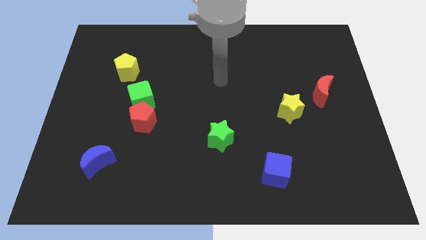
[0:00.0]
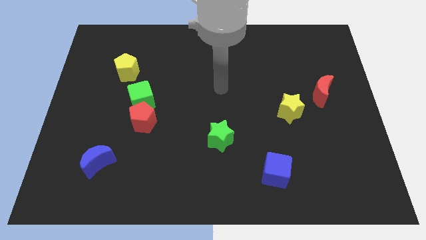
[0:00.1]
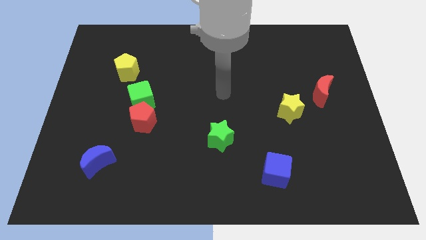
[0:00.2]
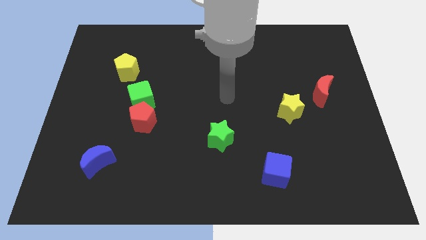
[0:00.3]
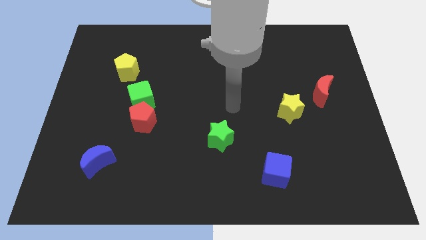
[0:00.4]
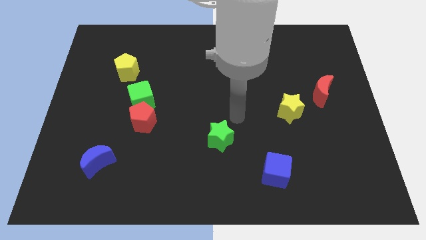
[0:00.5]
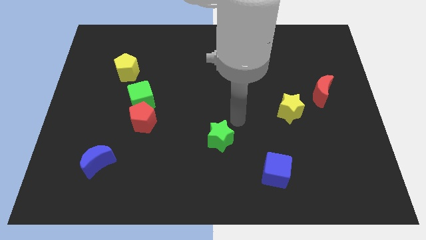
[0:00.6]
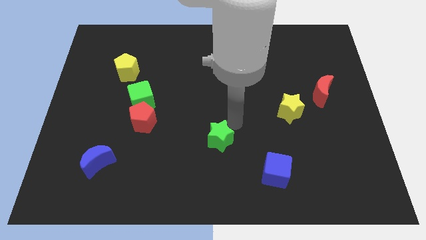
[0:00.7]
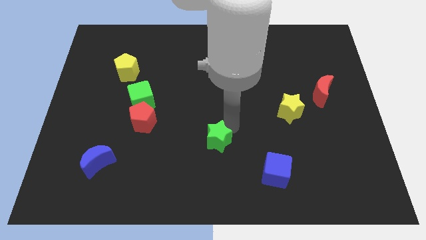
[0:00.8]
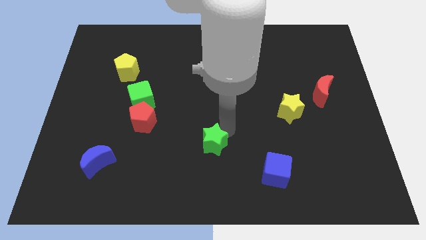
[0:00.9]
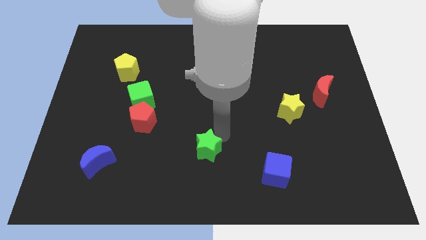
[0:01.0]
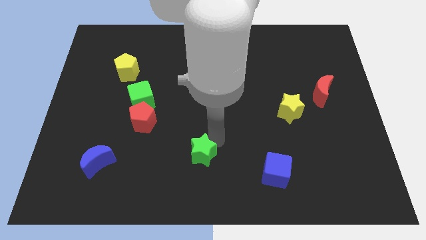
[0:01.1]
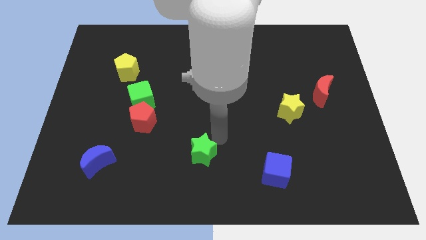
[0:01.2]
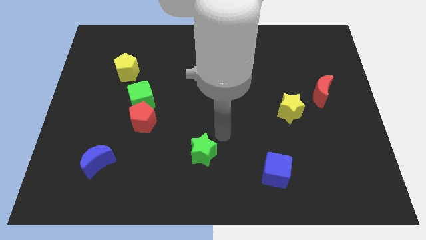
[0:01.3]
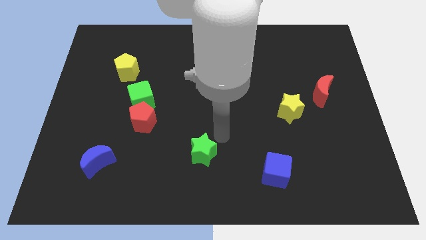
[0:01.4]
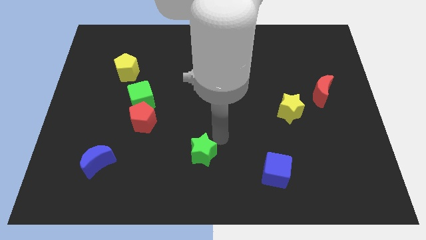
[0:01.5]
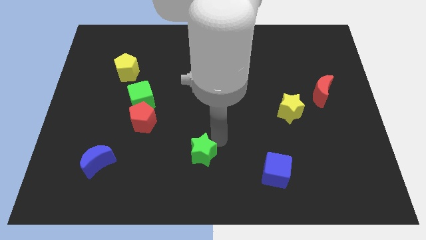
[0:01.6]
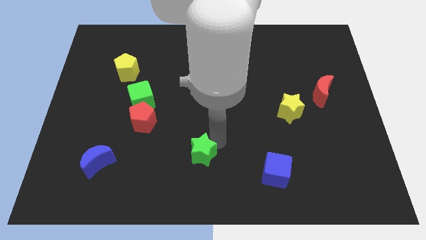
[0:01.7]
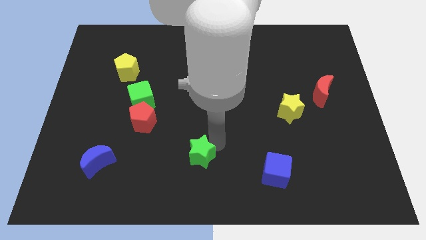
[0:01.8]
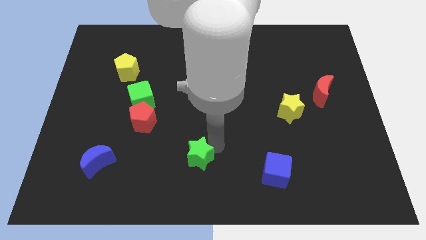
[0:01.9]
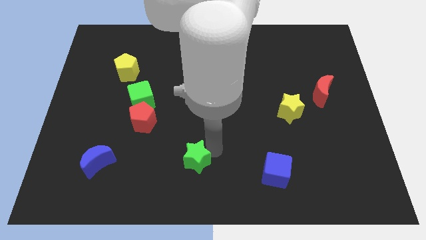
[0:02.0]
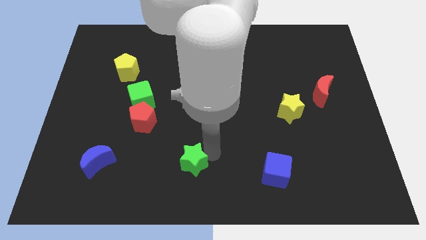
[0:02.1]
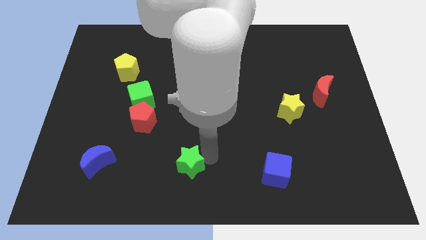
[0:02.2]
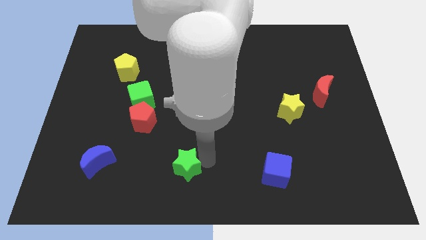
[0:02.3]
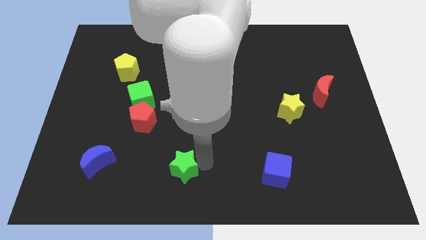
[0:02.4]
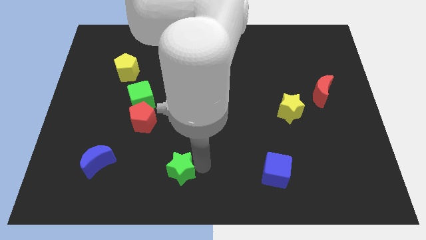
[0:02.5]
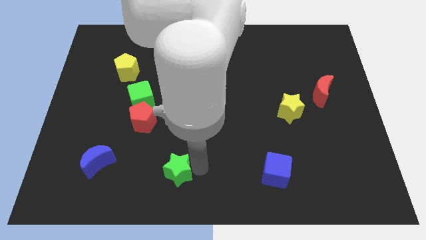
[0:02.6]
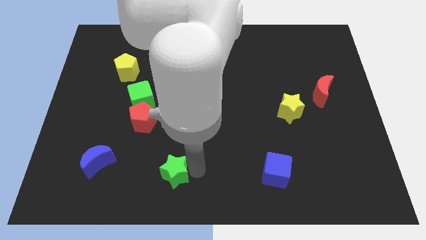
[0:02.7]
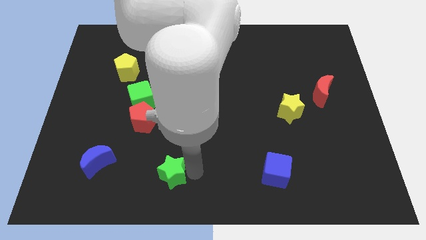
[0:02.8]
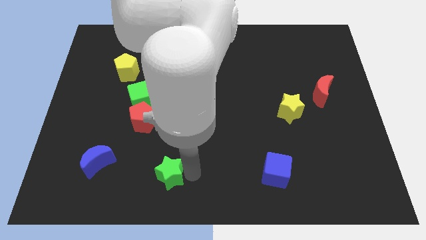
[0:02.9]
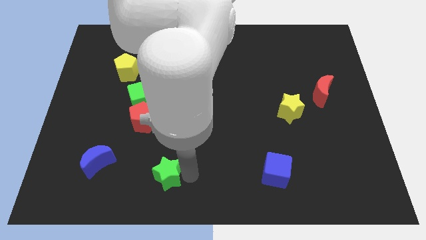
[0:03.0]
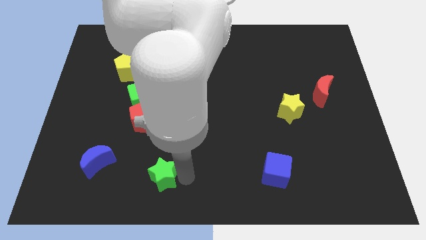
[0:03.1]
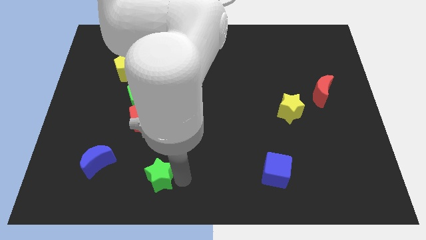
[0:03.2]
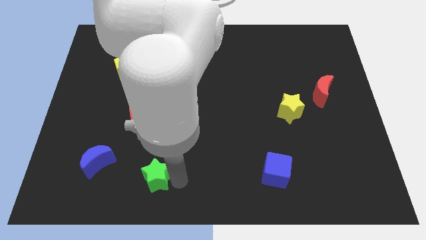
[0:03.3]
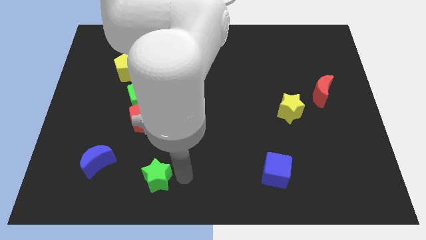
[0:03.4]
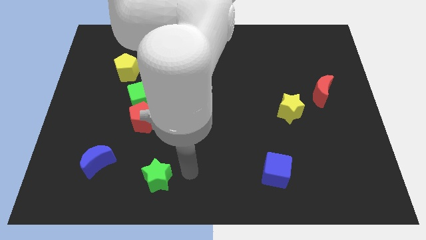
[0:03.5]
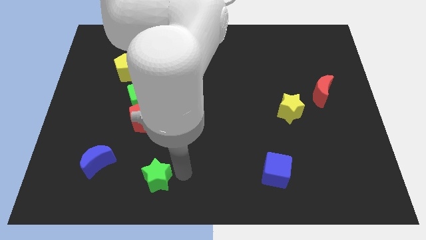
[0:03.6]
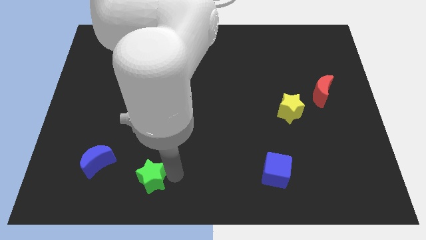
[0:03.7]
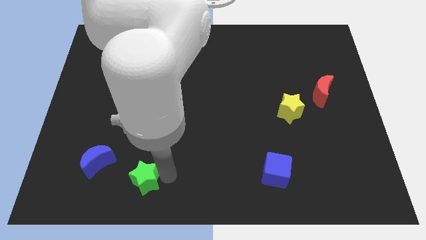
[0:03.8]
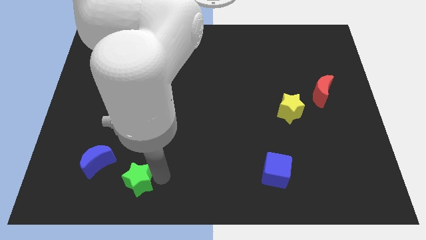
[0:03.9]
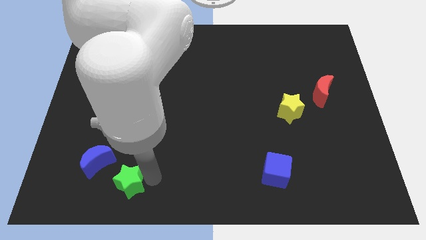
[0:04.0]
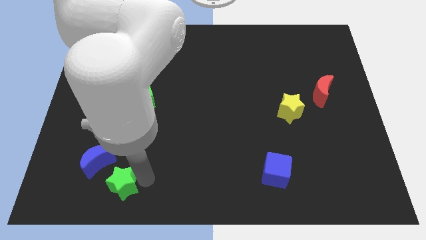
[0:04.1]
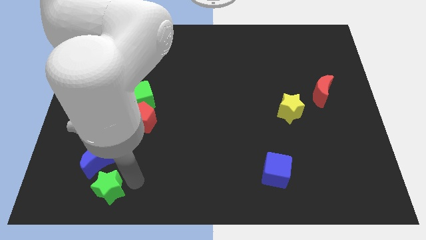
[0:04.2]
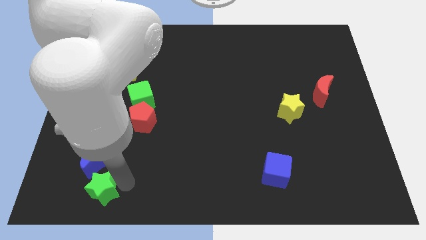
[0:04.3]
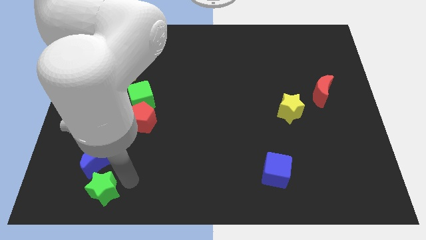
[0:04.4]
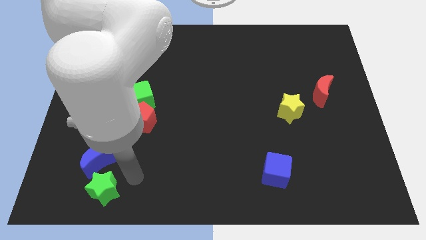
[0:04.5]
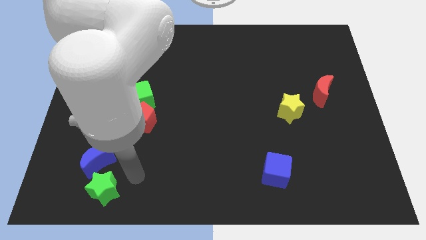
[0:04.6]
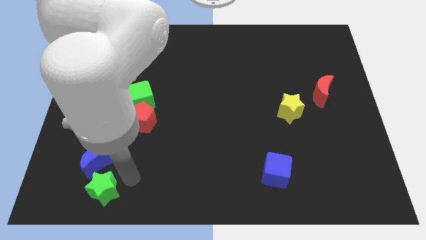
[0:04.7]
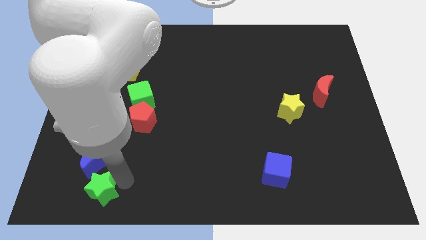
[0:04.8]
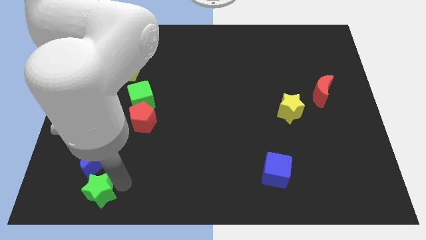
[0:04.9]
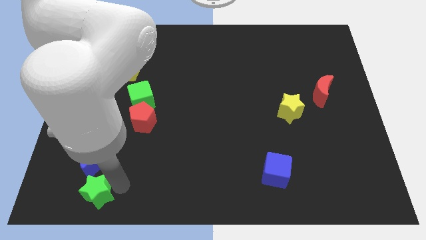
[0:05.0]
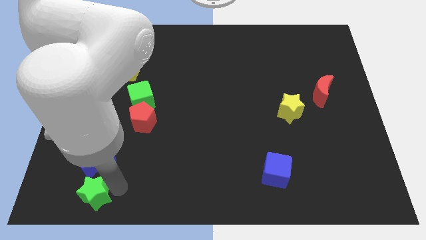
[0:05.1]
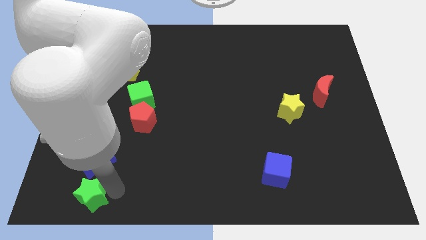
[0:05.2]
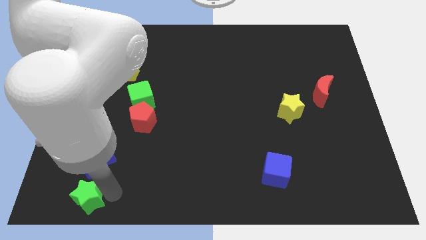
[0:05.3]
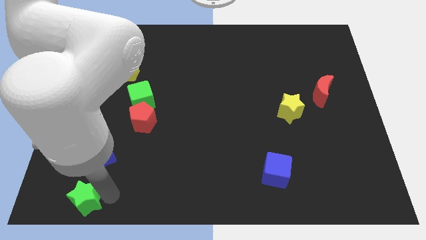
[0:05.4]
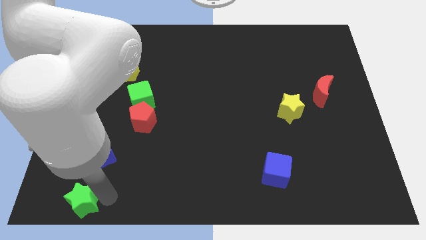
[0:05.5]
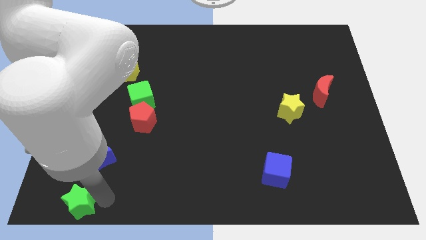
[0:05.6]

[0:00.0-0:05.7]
push the green star to the bottom left of the board
